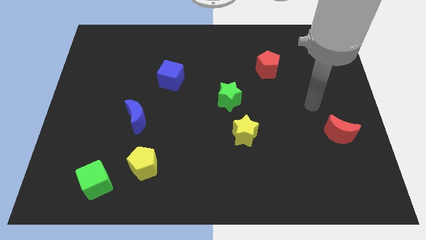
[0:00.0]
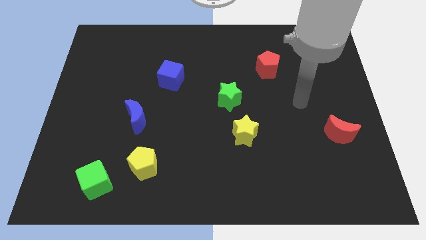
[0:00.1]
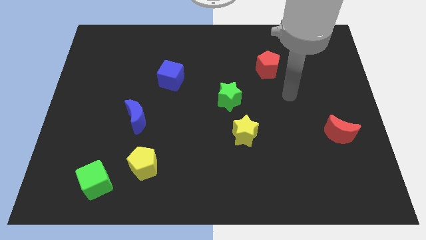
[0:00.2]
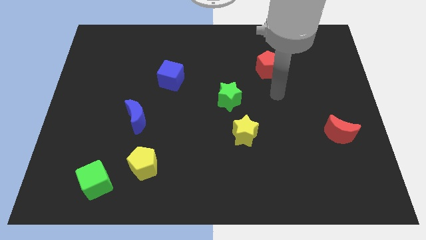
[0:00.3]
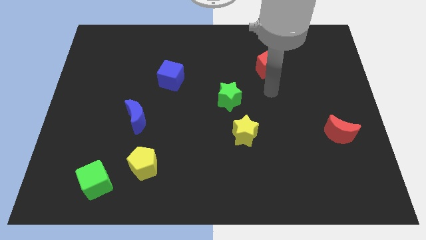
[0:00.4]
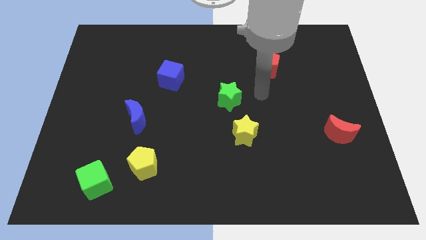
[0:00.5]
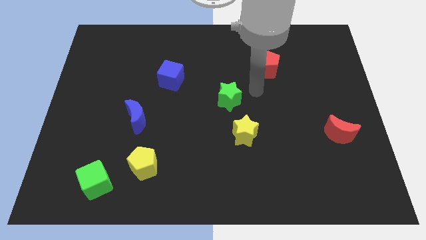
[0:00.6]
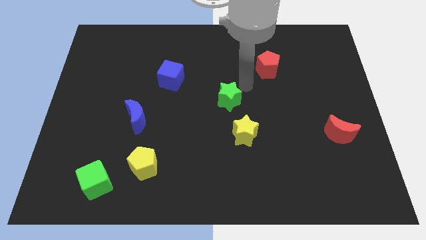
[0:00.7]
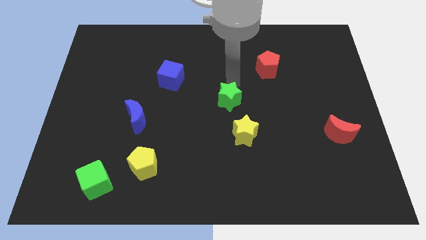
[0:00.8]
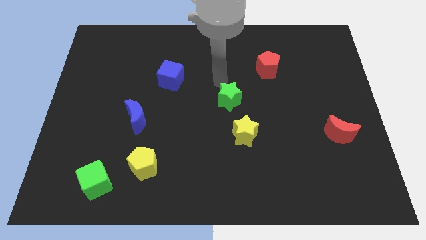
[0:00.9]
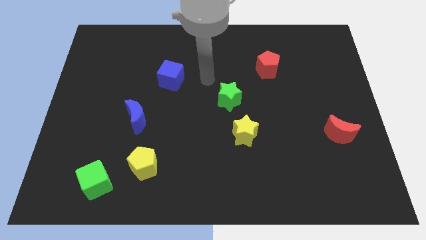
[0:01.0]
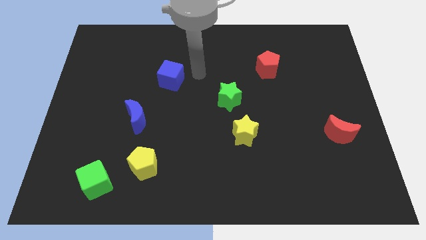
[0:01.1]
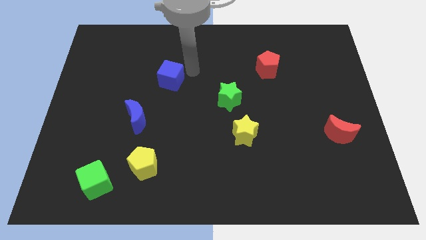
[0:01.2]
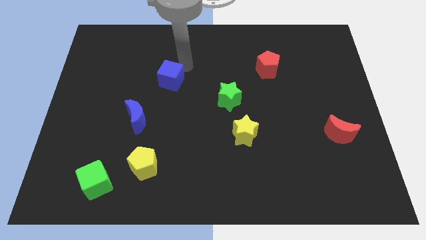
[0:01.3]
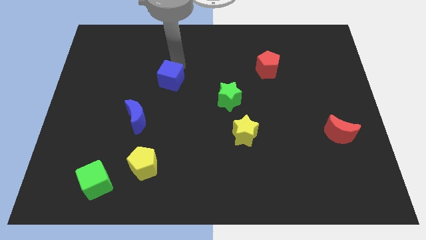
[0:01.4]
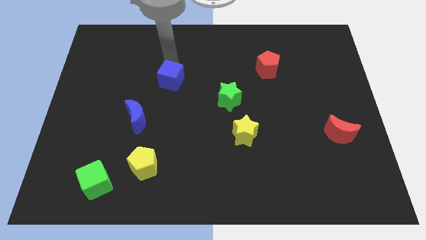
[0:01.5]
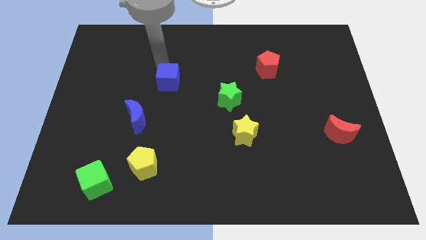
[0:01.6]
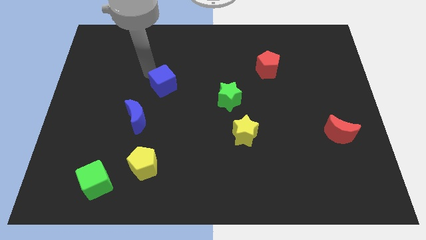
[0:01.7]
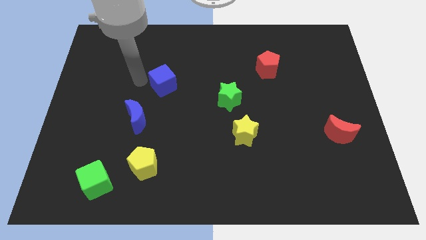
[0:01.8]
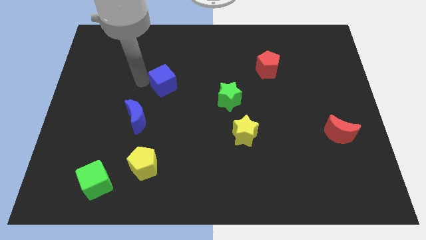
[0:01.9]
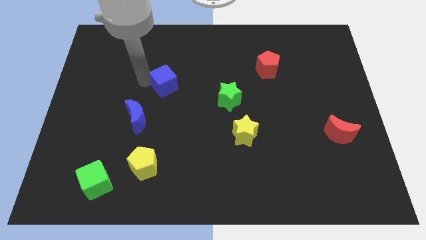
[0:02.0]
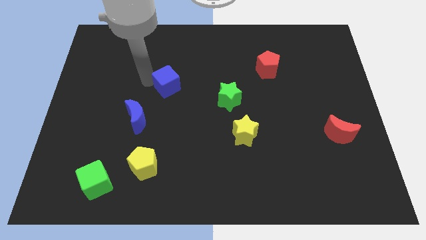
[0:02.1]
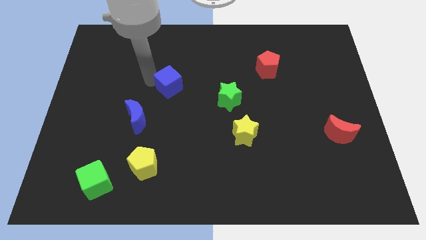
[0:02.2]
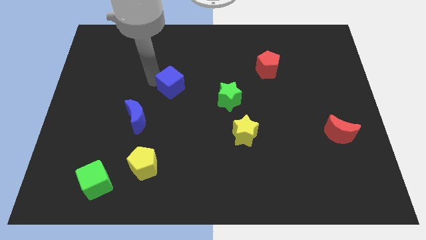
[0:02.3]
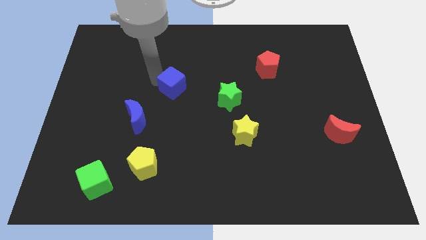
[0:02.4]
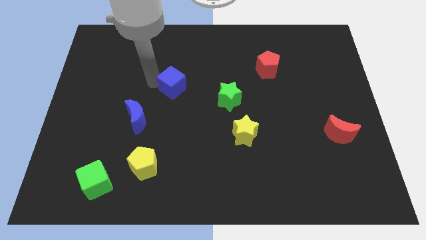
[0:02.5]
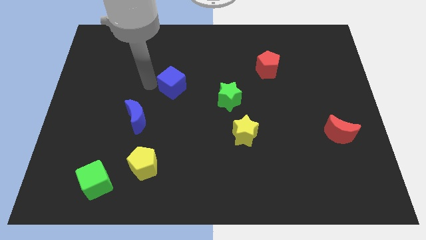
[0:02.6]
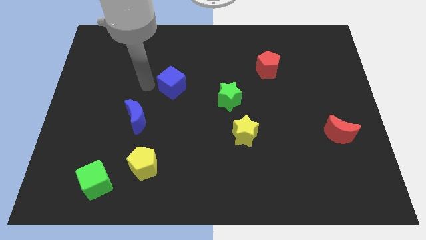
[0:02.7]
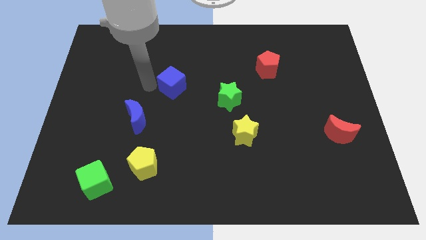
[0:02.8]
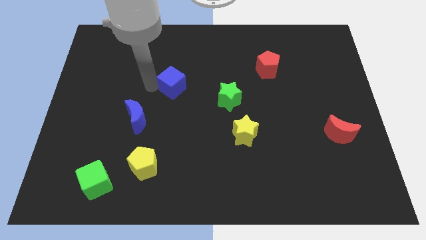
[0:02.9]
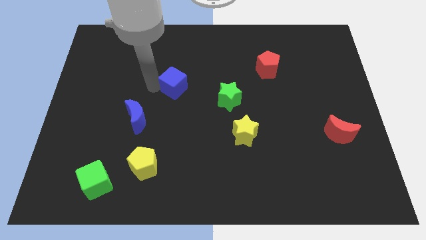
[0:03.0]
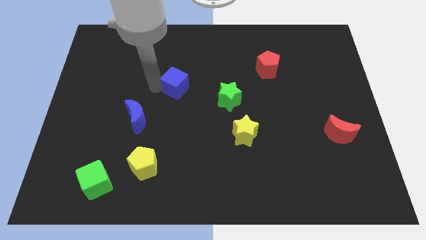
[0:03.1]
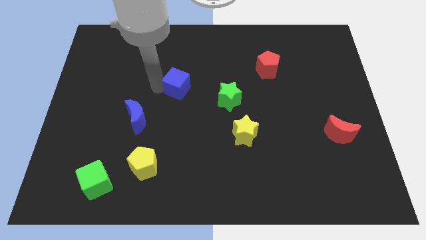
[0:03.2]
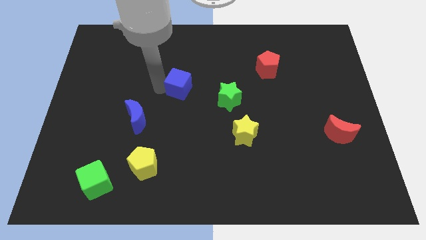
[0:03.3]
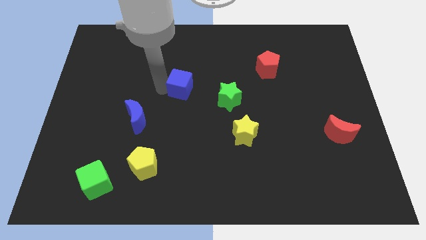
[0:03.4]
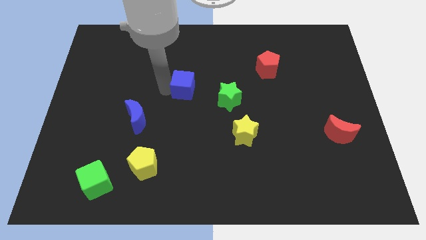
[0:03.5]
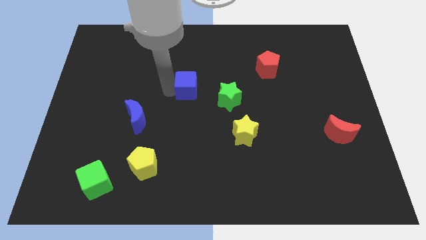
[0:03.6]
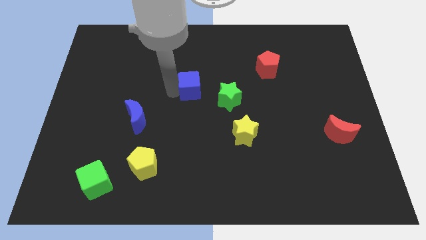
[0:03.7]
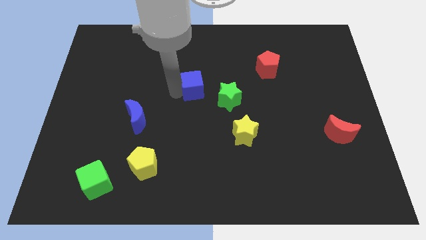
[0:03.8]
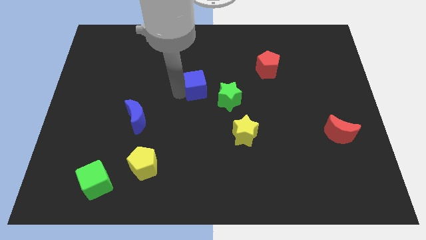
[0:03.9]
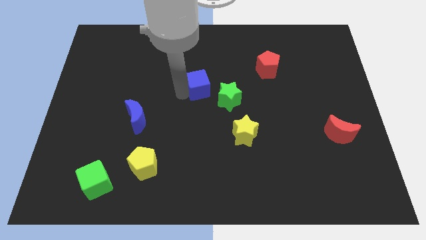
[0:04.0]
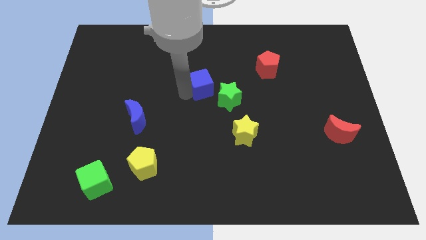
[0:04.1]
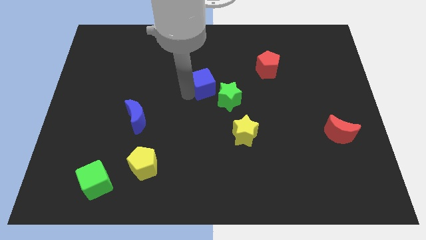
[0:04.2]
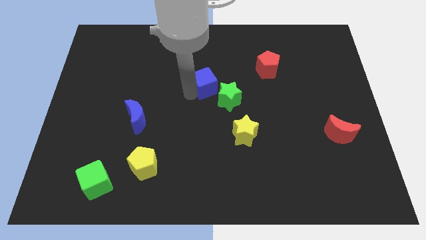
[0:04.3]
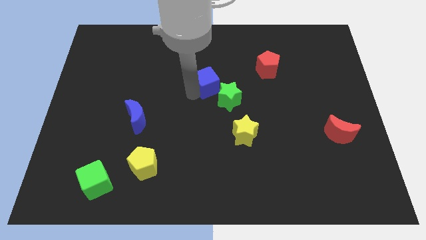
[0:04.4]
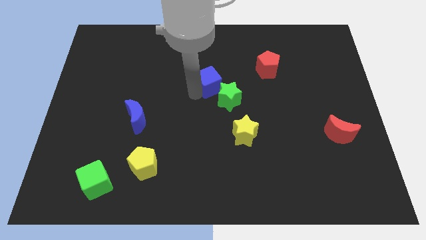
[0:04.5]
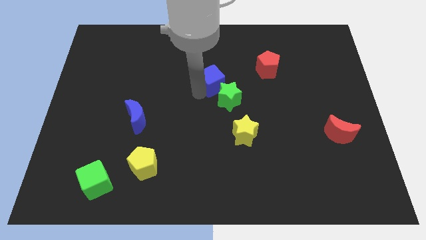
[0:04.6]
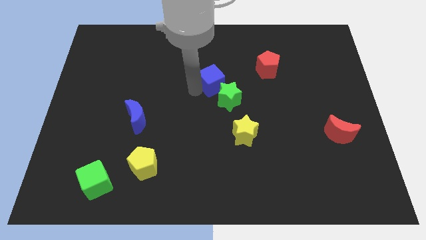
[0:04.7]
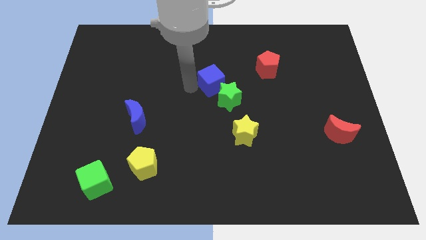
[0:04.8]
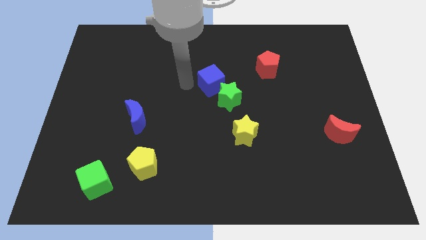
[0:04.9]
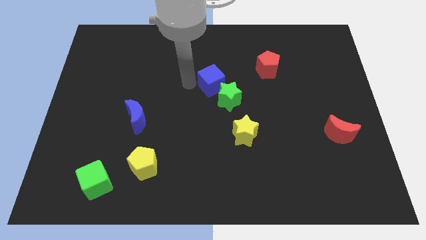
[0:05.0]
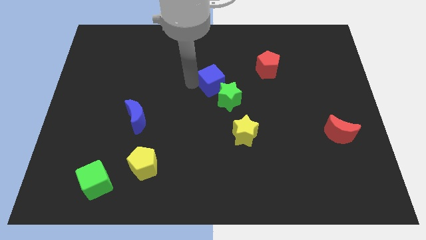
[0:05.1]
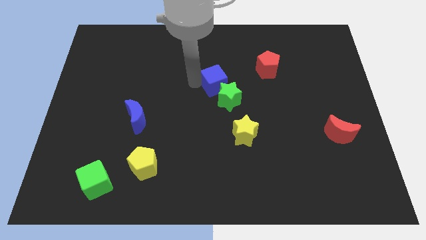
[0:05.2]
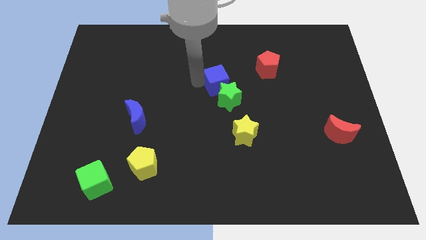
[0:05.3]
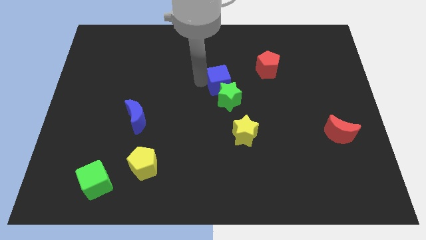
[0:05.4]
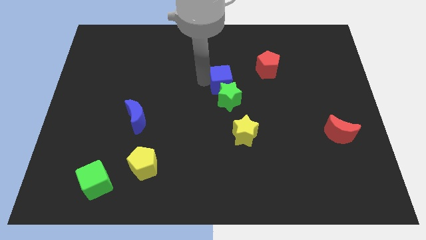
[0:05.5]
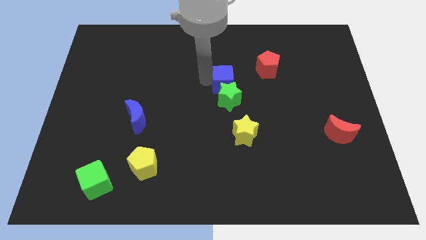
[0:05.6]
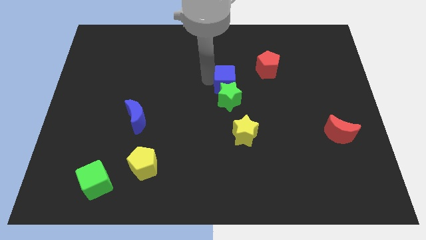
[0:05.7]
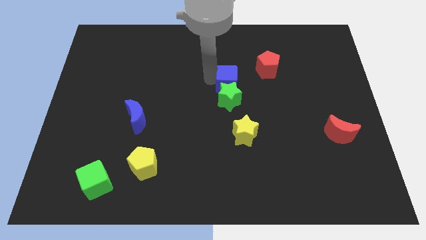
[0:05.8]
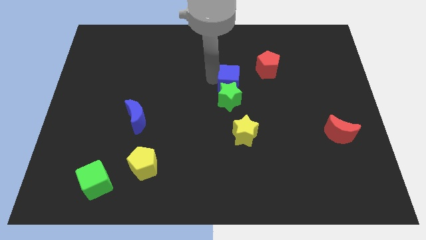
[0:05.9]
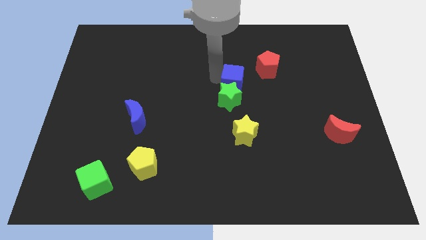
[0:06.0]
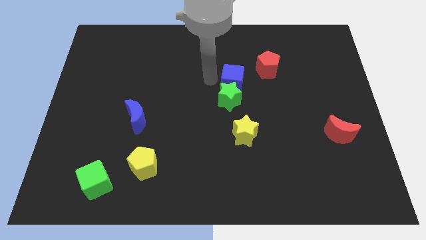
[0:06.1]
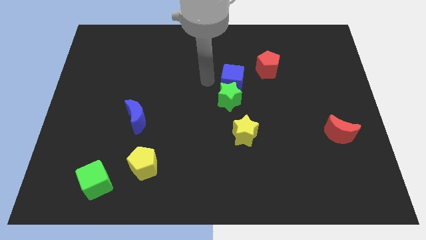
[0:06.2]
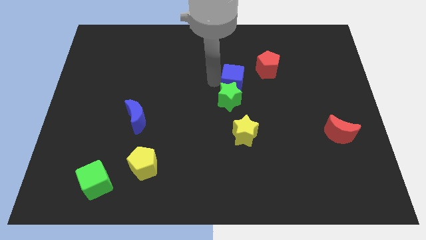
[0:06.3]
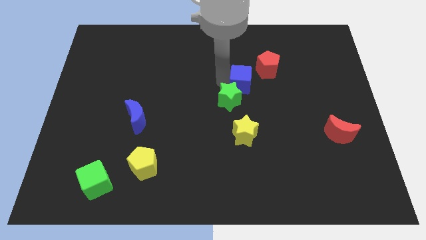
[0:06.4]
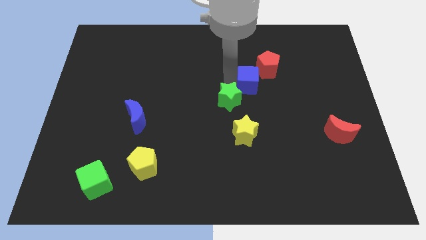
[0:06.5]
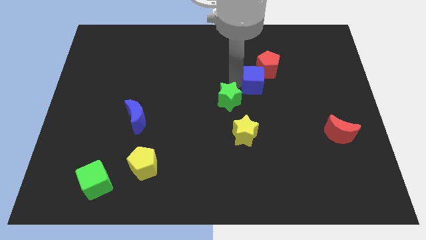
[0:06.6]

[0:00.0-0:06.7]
move the blue cube right

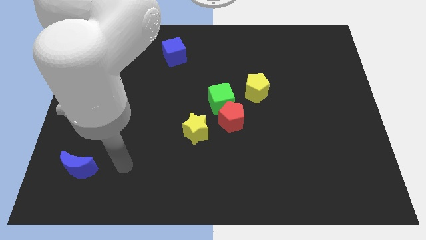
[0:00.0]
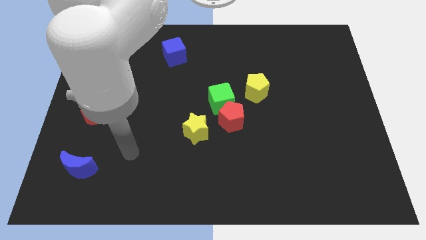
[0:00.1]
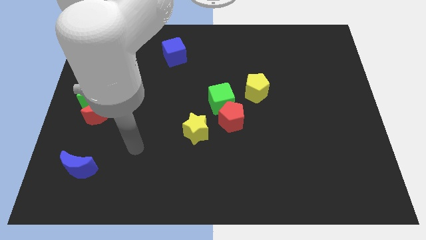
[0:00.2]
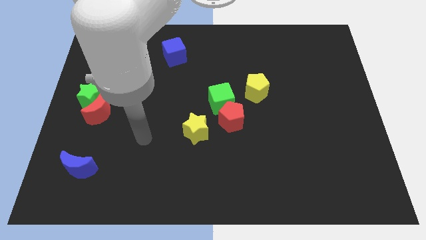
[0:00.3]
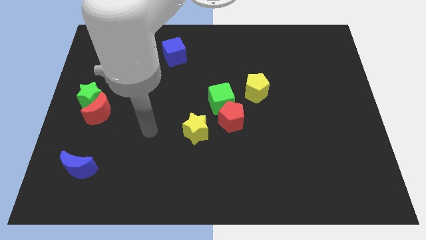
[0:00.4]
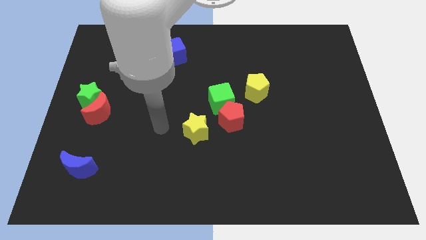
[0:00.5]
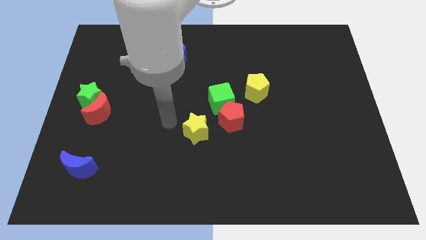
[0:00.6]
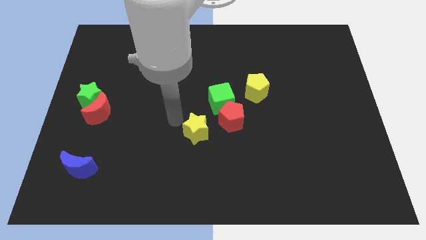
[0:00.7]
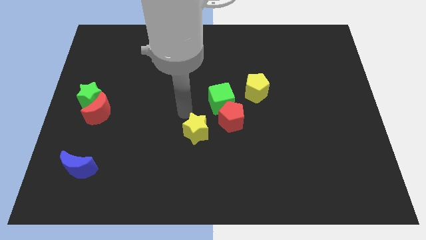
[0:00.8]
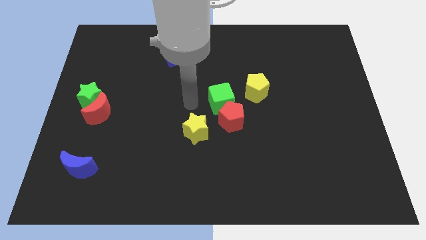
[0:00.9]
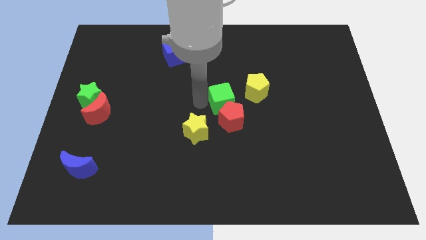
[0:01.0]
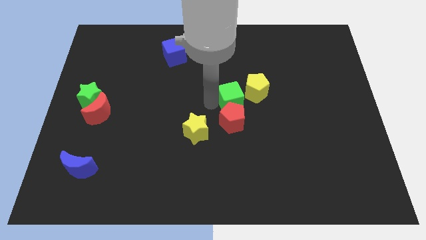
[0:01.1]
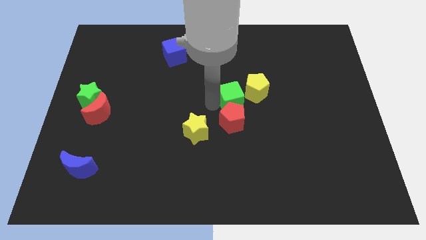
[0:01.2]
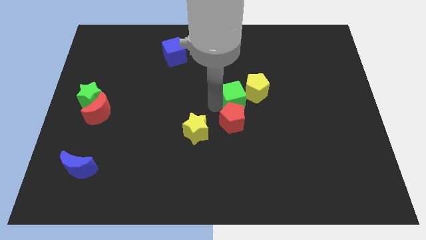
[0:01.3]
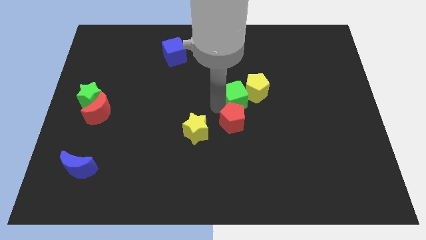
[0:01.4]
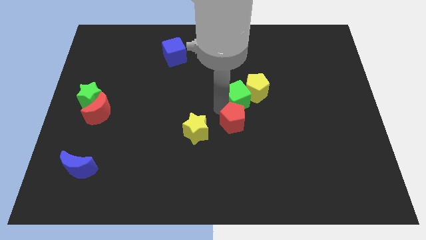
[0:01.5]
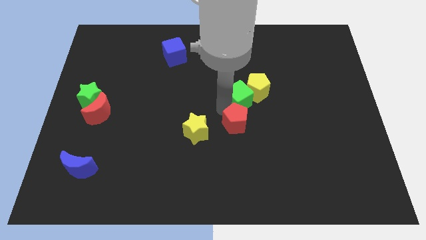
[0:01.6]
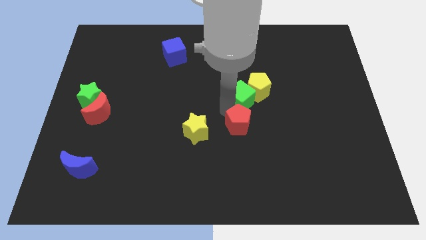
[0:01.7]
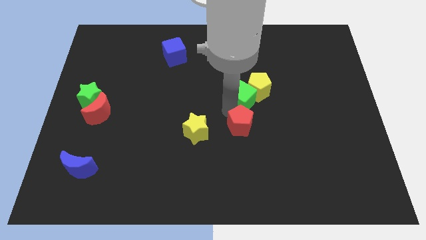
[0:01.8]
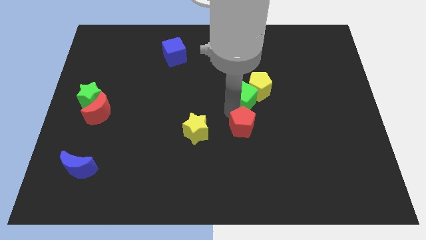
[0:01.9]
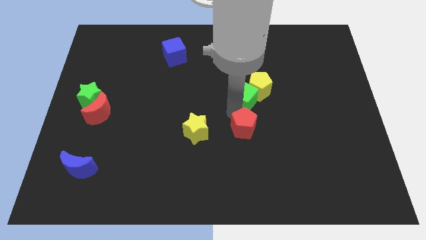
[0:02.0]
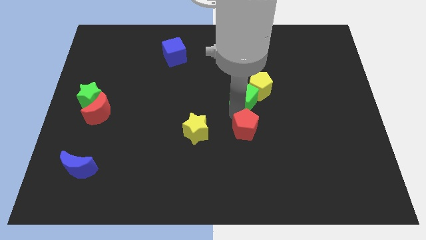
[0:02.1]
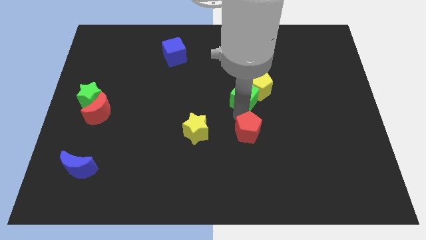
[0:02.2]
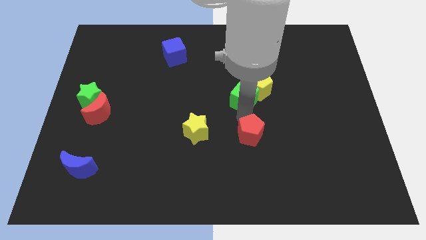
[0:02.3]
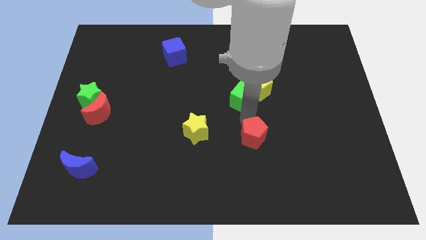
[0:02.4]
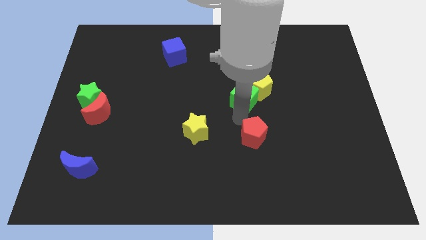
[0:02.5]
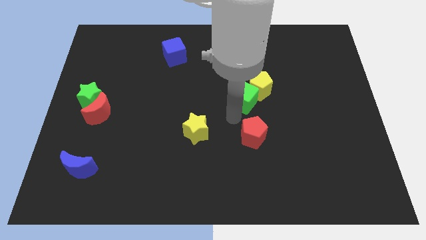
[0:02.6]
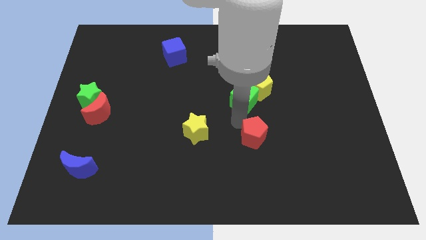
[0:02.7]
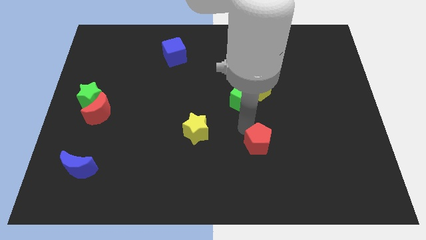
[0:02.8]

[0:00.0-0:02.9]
slightly push the red pentagon diagonally downwards and to the right
